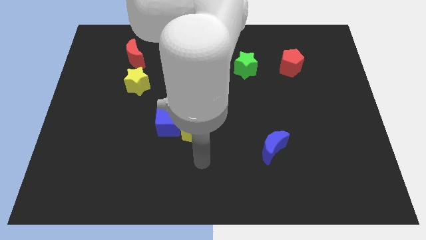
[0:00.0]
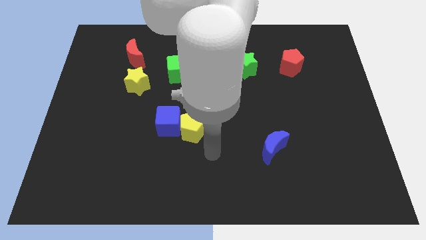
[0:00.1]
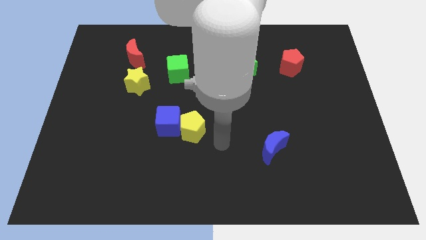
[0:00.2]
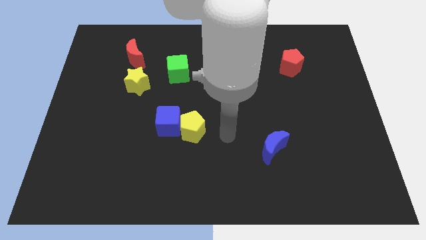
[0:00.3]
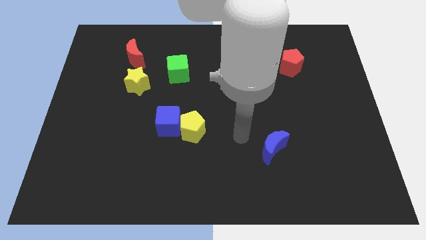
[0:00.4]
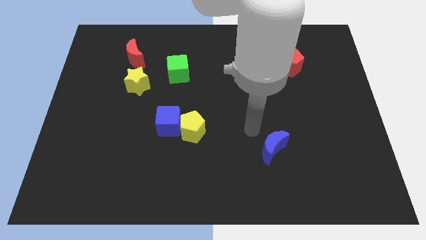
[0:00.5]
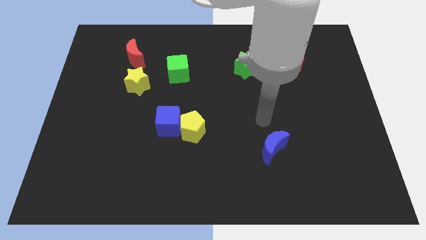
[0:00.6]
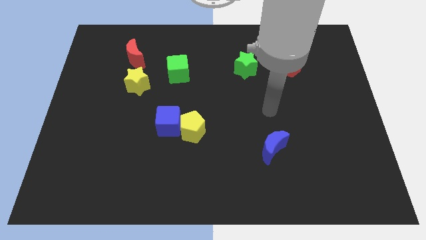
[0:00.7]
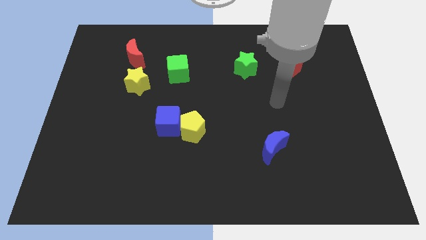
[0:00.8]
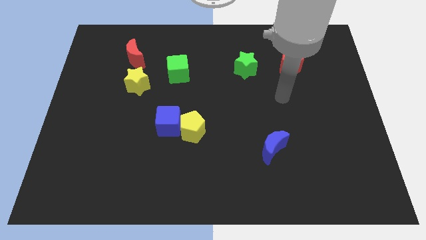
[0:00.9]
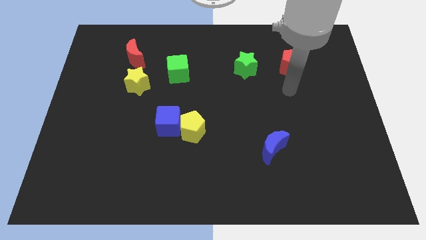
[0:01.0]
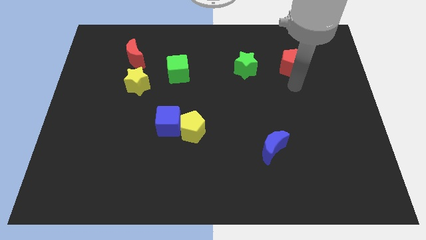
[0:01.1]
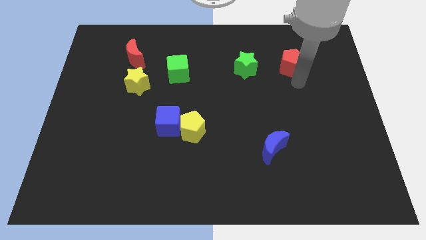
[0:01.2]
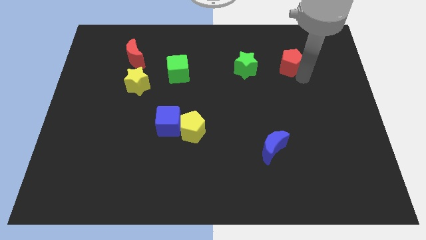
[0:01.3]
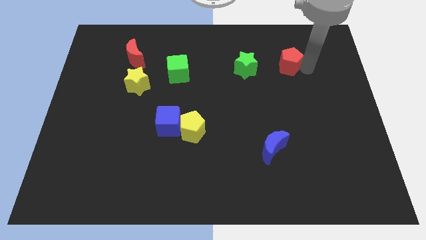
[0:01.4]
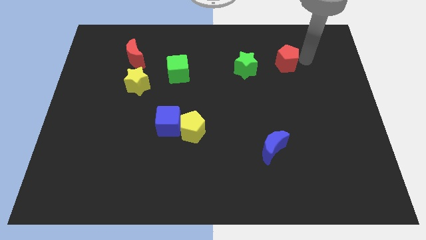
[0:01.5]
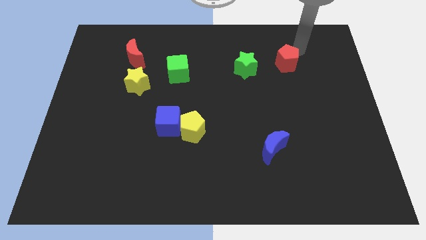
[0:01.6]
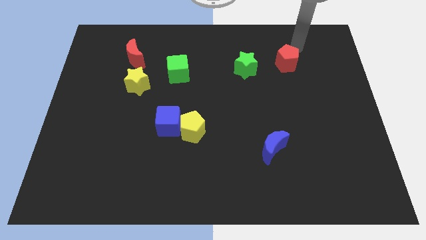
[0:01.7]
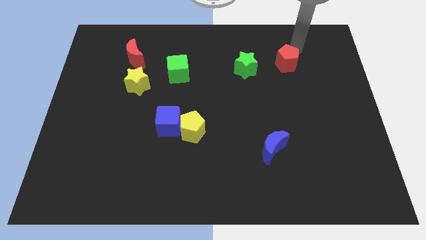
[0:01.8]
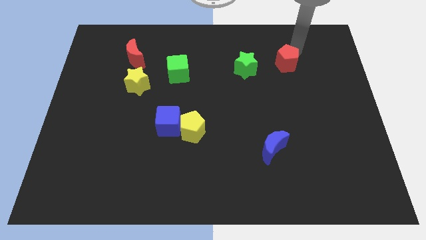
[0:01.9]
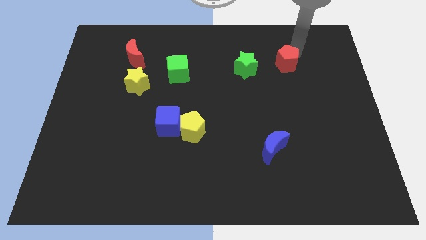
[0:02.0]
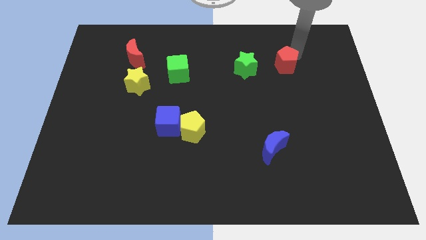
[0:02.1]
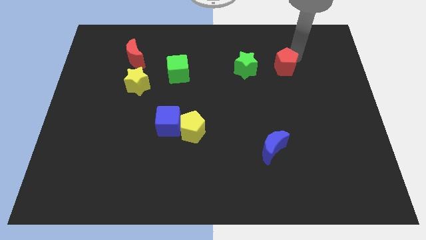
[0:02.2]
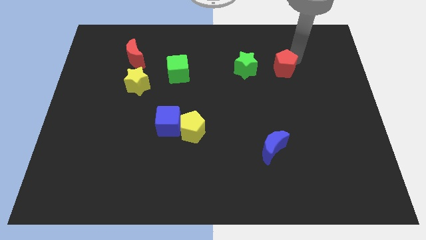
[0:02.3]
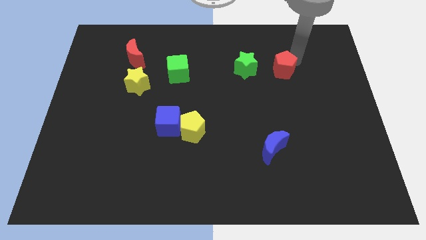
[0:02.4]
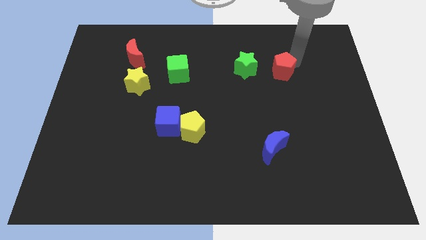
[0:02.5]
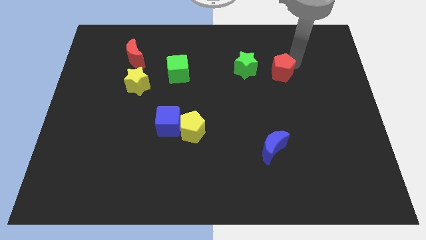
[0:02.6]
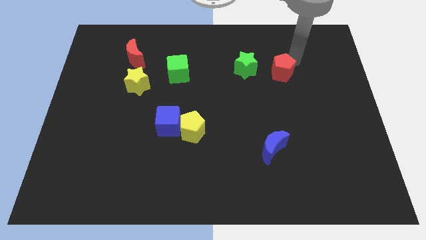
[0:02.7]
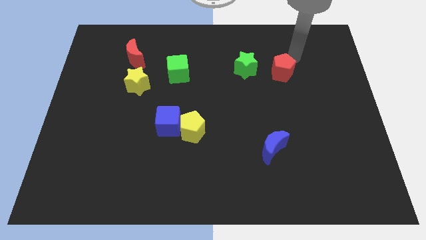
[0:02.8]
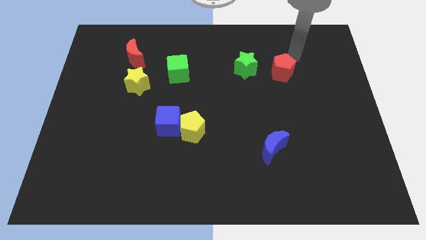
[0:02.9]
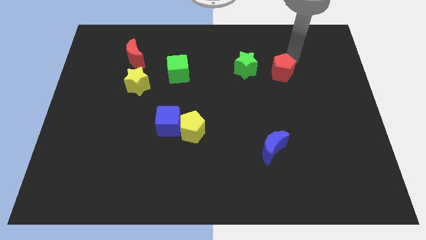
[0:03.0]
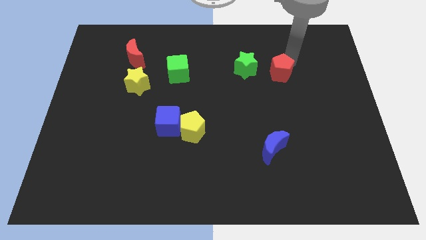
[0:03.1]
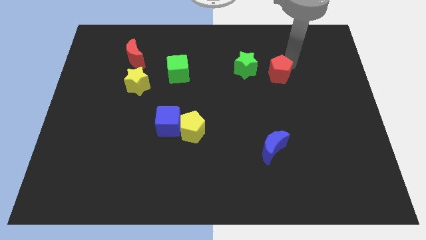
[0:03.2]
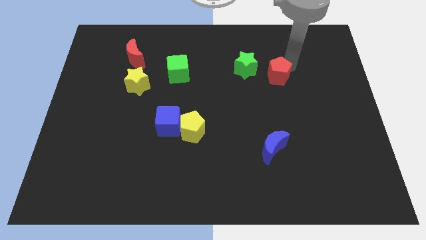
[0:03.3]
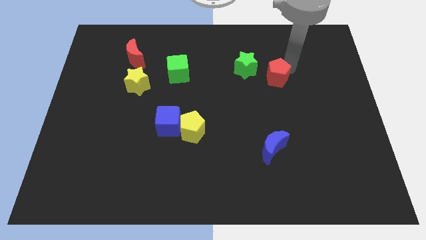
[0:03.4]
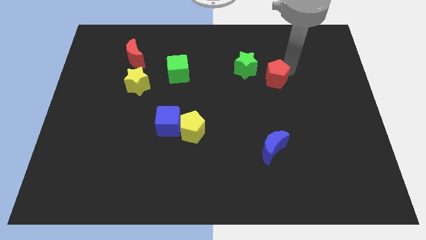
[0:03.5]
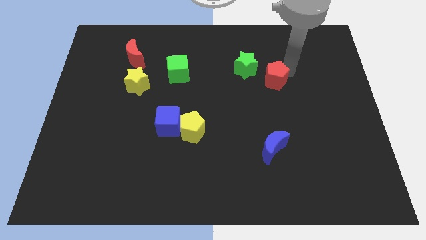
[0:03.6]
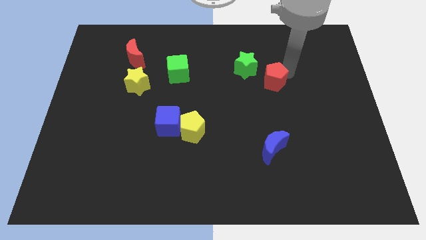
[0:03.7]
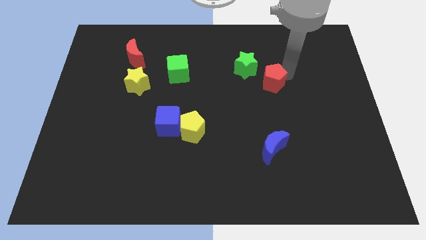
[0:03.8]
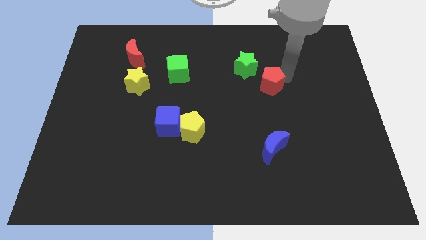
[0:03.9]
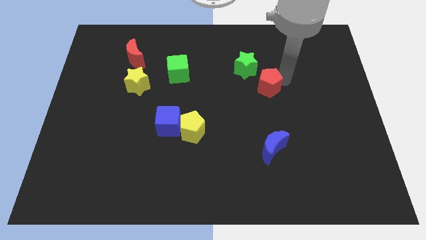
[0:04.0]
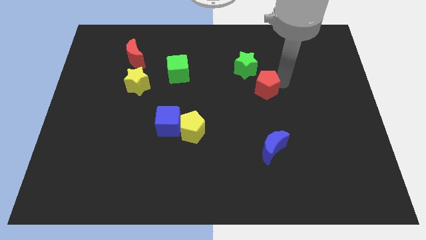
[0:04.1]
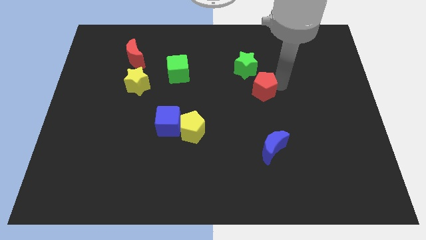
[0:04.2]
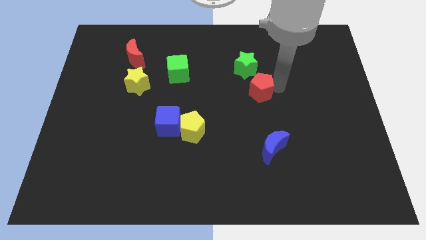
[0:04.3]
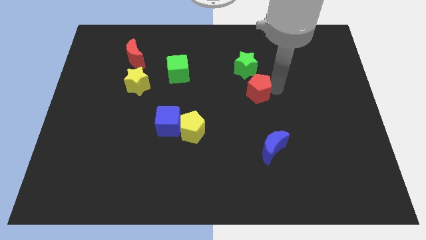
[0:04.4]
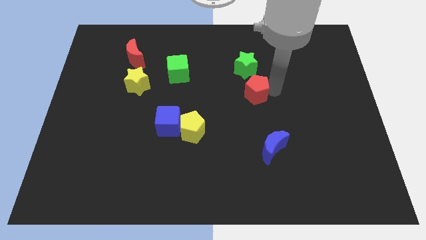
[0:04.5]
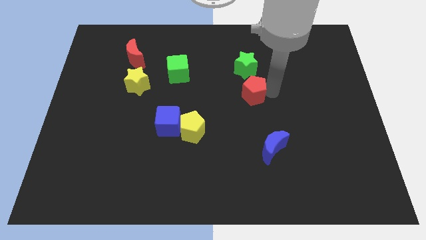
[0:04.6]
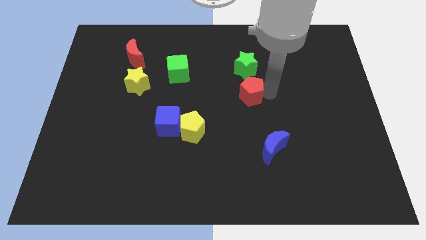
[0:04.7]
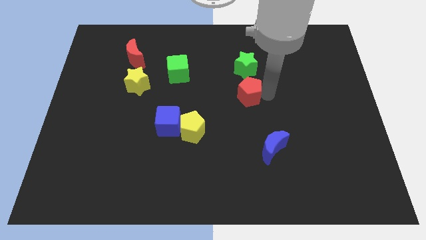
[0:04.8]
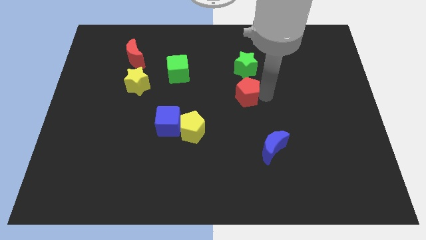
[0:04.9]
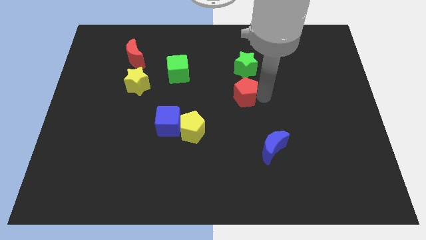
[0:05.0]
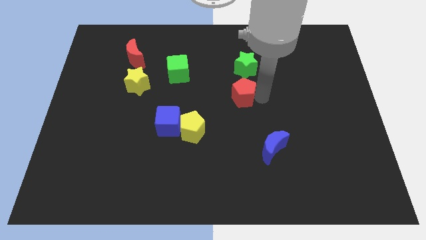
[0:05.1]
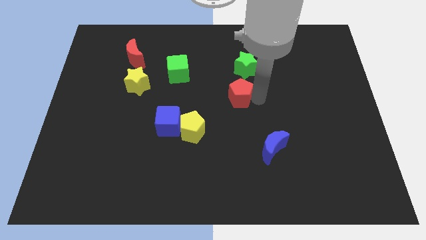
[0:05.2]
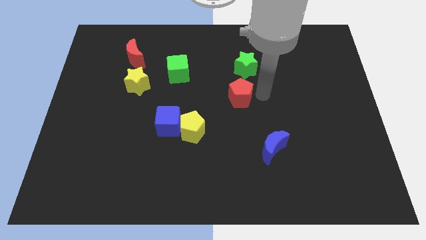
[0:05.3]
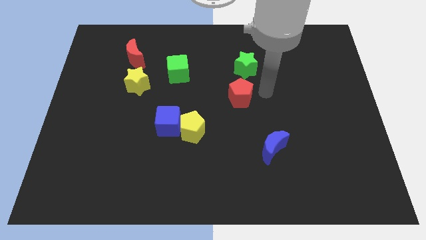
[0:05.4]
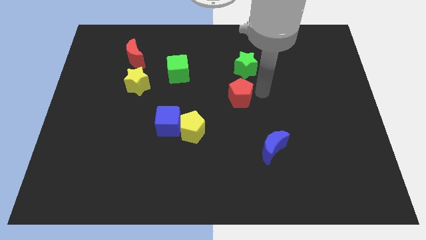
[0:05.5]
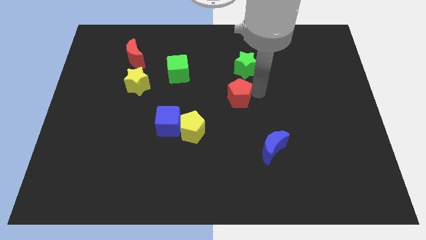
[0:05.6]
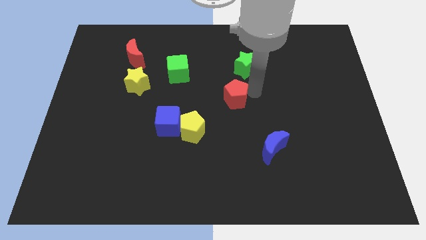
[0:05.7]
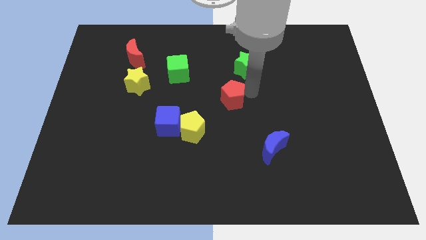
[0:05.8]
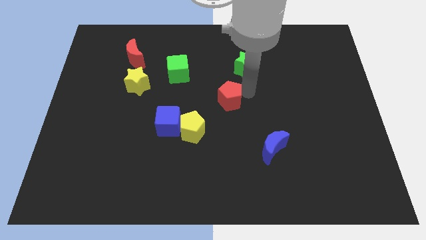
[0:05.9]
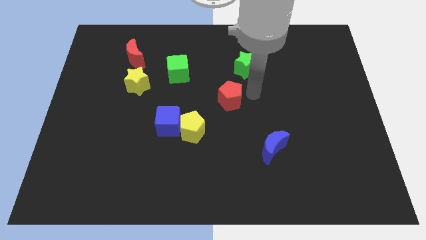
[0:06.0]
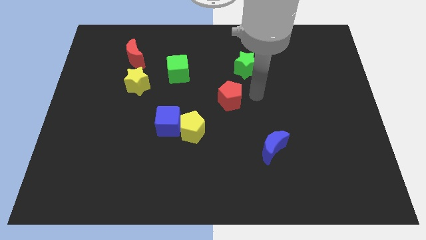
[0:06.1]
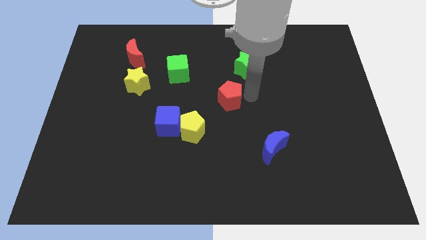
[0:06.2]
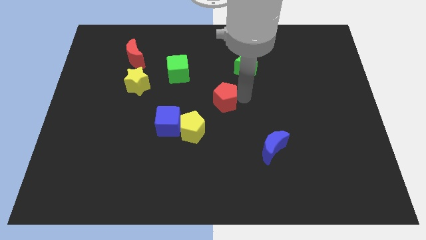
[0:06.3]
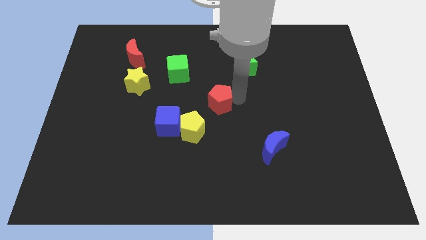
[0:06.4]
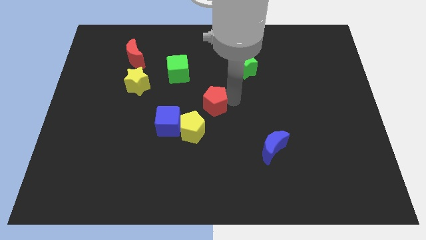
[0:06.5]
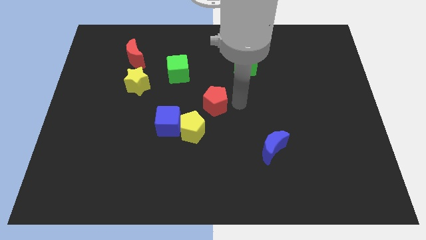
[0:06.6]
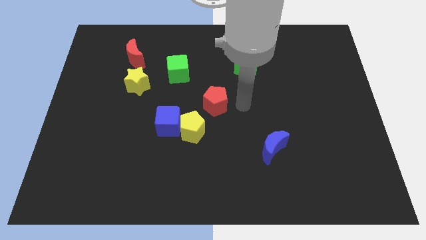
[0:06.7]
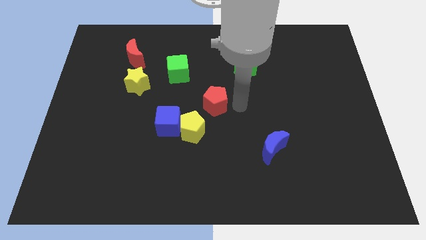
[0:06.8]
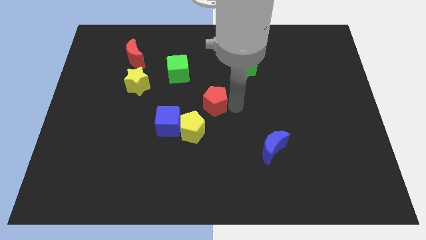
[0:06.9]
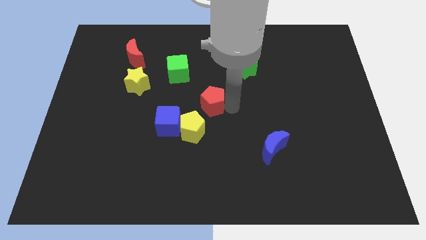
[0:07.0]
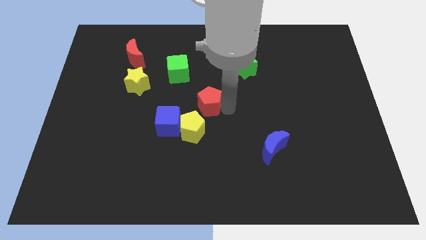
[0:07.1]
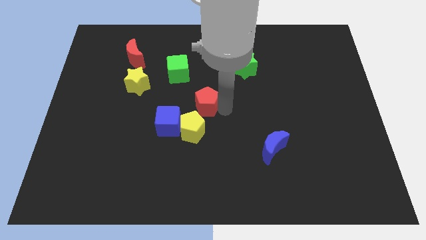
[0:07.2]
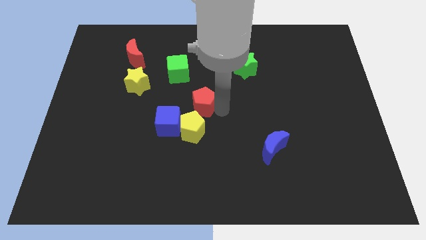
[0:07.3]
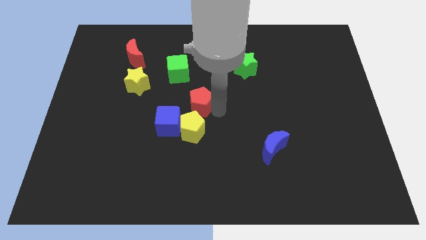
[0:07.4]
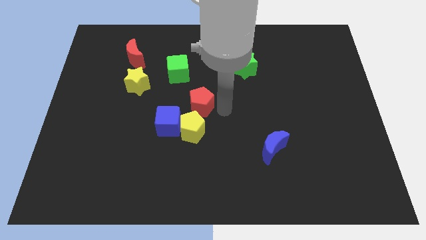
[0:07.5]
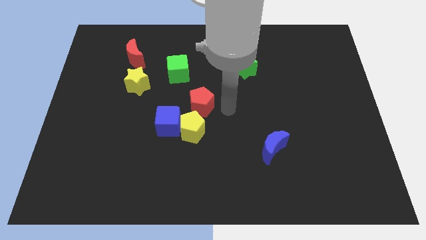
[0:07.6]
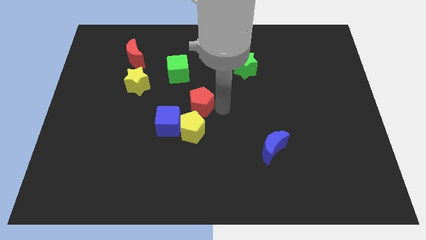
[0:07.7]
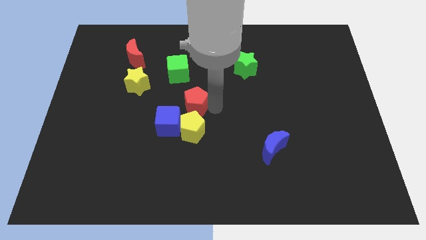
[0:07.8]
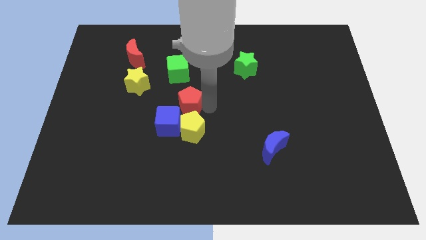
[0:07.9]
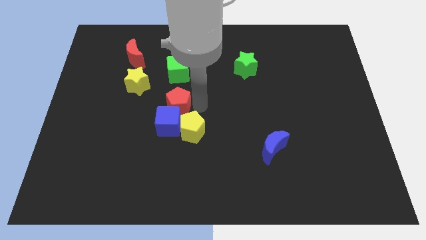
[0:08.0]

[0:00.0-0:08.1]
push the red pentagon to the bottom right side of the yellow star
